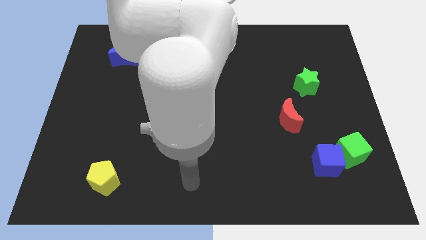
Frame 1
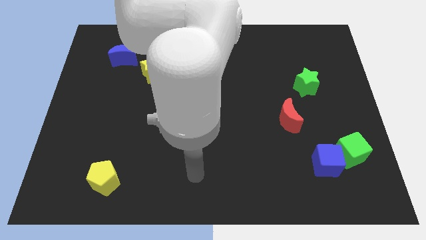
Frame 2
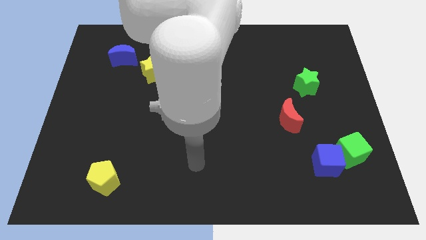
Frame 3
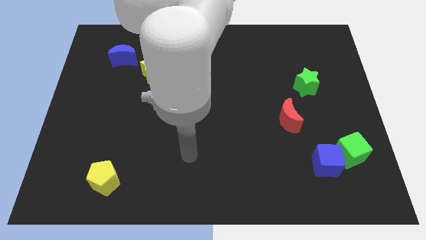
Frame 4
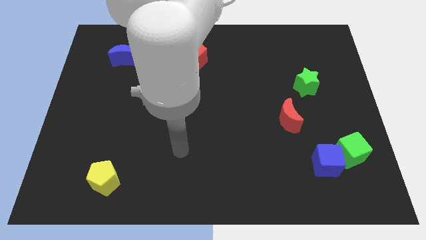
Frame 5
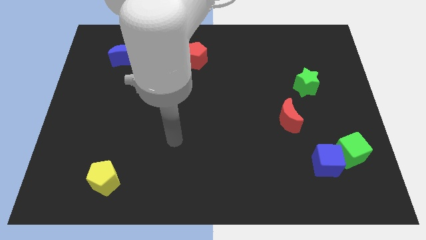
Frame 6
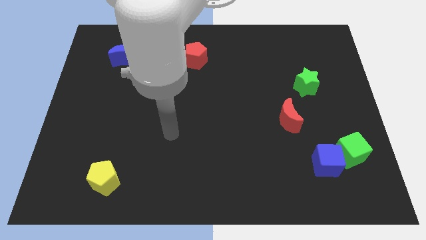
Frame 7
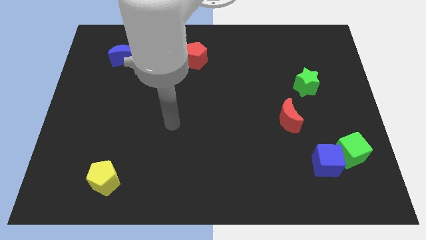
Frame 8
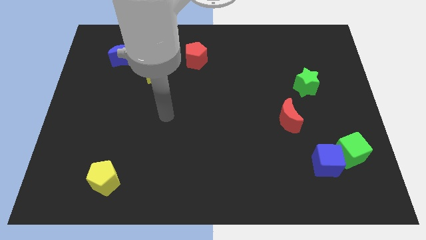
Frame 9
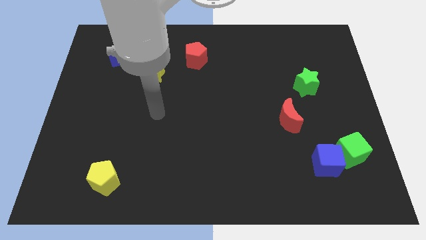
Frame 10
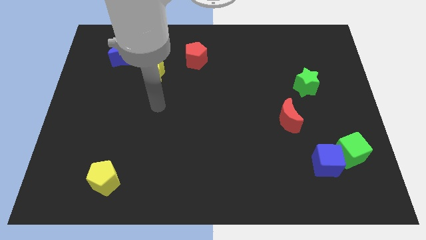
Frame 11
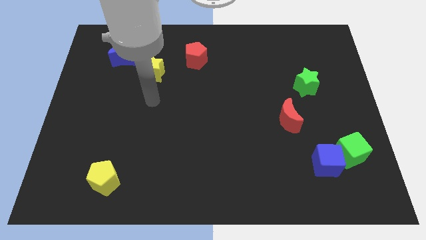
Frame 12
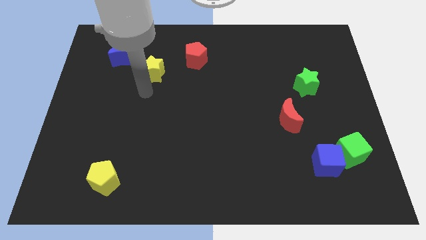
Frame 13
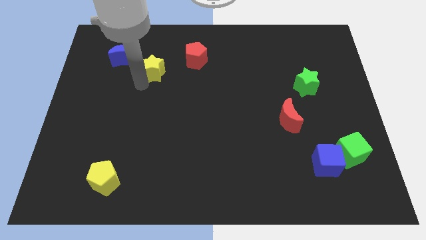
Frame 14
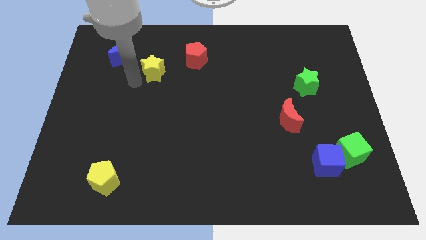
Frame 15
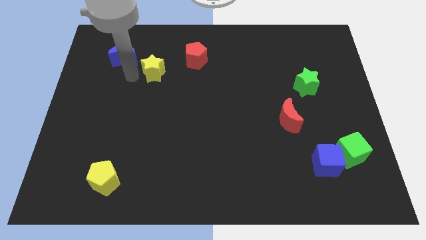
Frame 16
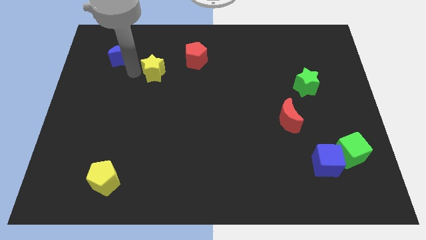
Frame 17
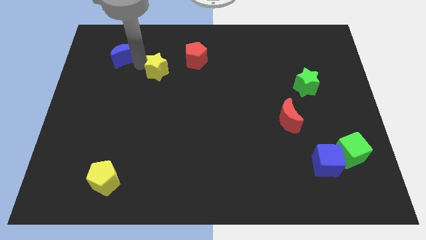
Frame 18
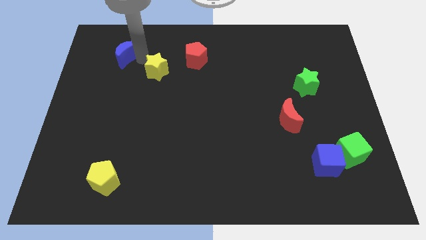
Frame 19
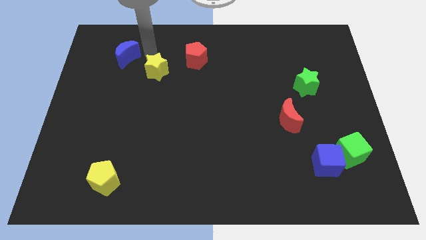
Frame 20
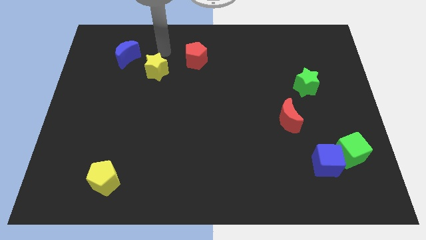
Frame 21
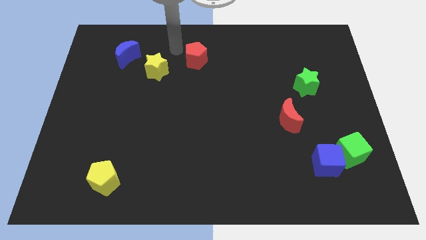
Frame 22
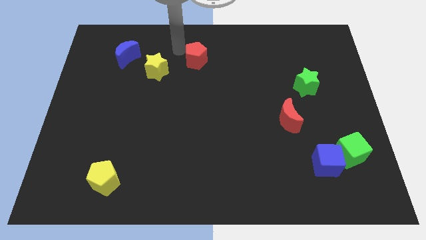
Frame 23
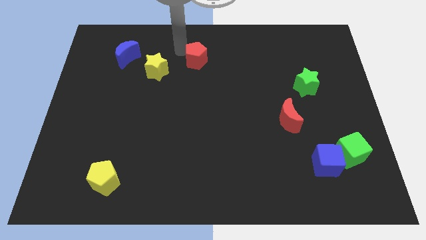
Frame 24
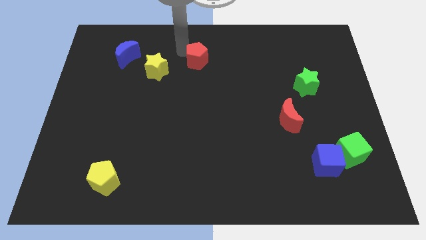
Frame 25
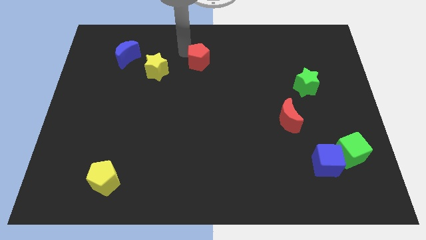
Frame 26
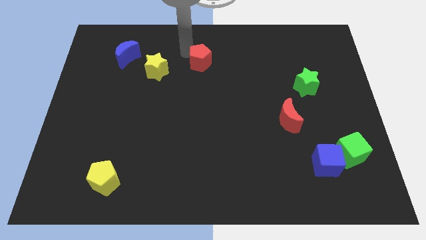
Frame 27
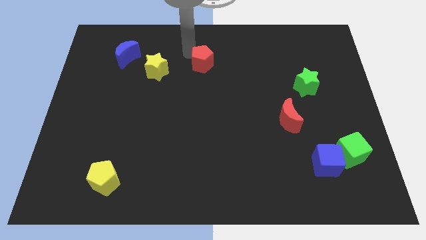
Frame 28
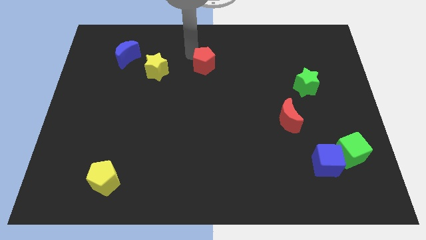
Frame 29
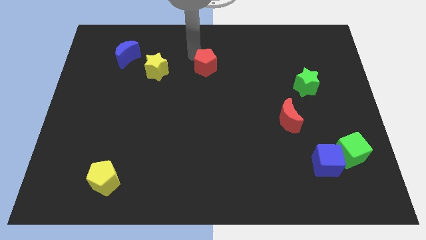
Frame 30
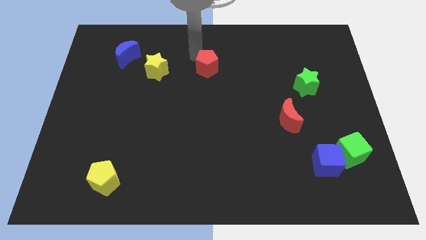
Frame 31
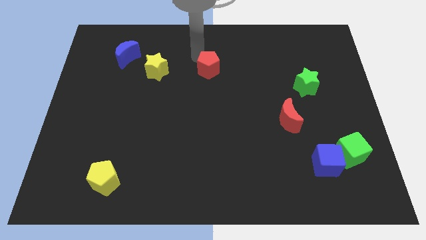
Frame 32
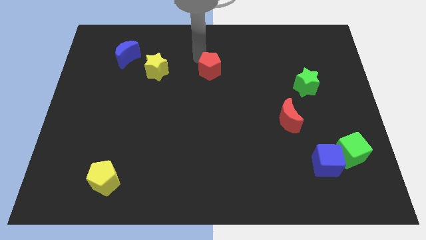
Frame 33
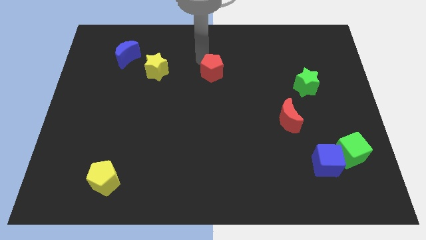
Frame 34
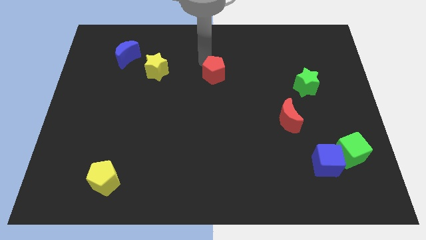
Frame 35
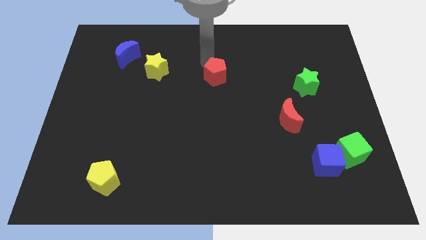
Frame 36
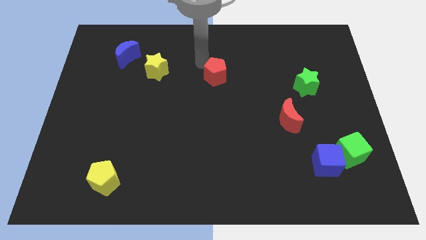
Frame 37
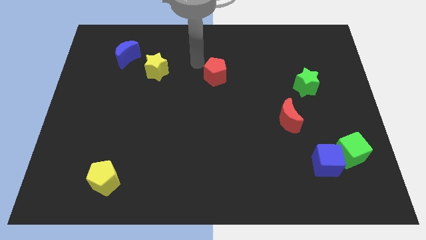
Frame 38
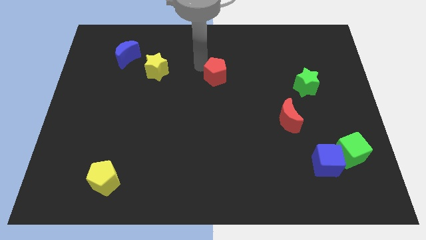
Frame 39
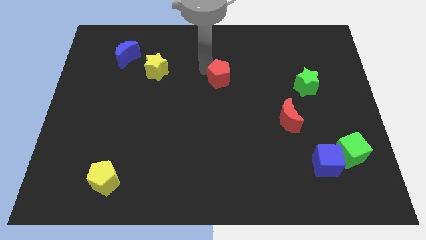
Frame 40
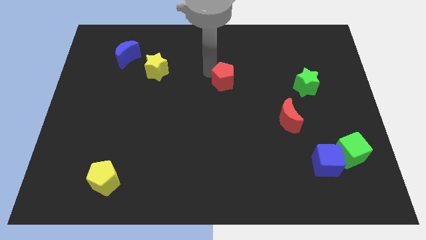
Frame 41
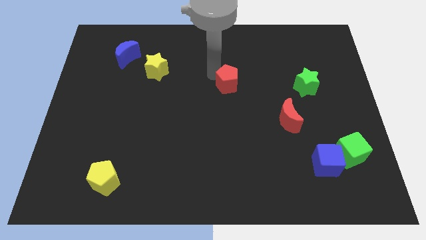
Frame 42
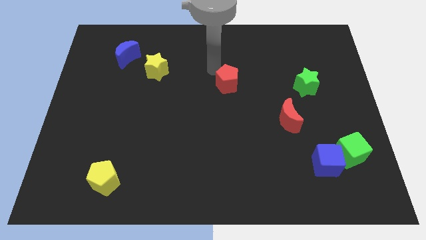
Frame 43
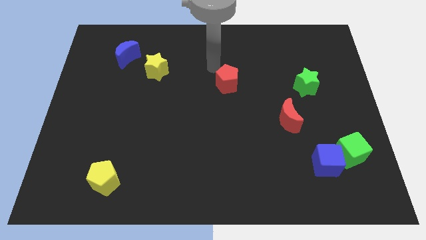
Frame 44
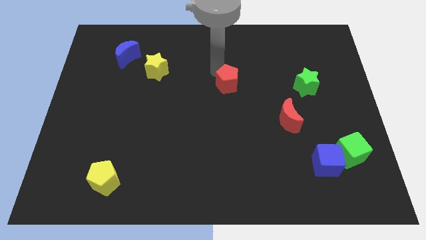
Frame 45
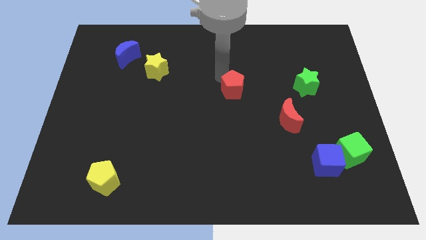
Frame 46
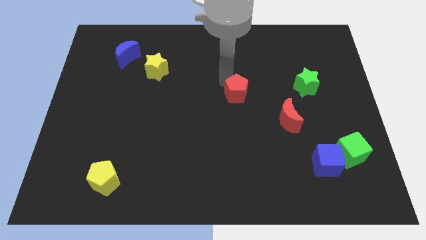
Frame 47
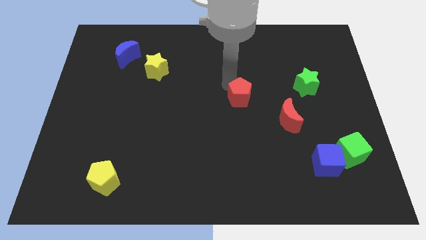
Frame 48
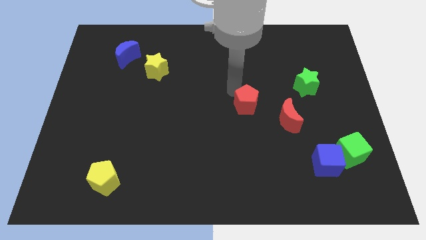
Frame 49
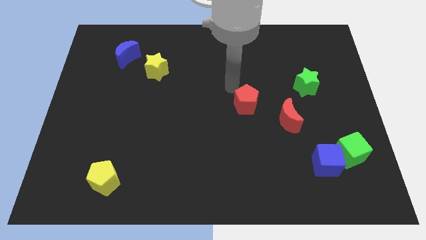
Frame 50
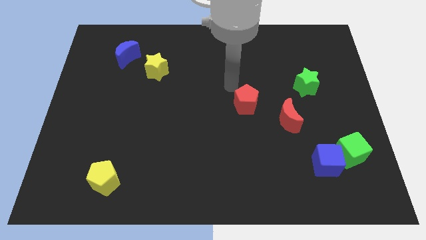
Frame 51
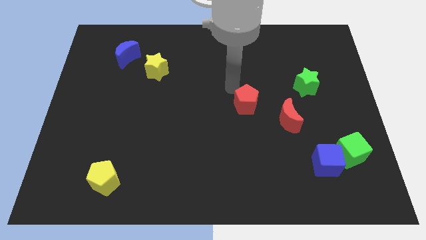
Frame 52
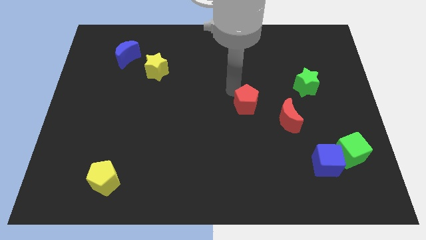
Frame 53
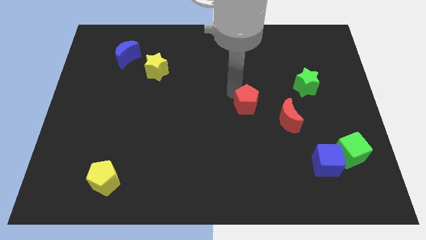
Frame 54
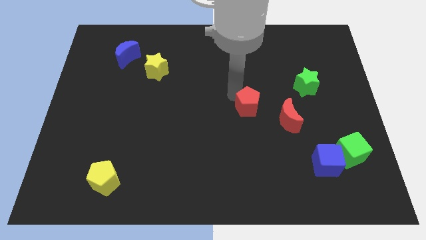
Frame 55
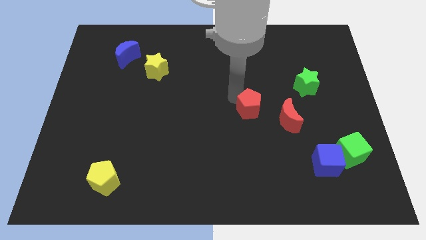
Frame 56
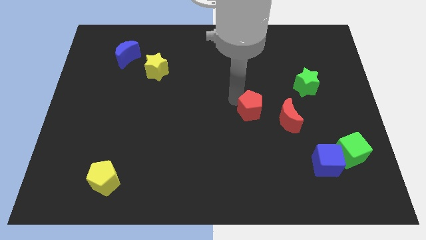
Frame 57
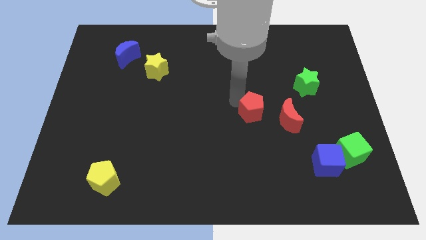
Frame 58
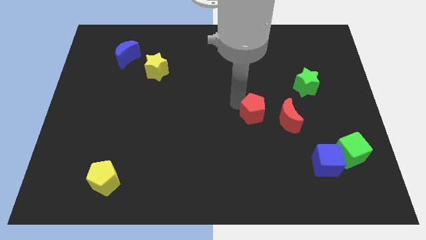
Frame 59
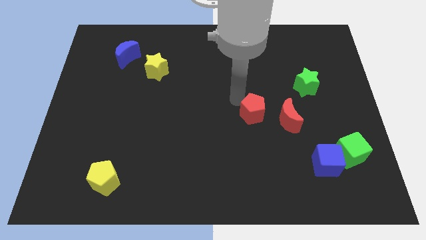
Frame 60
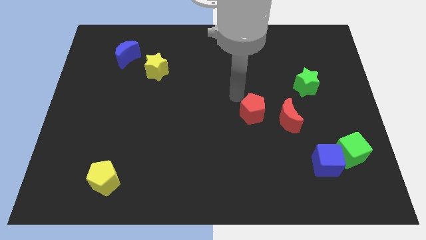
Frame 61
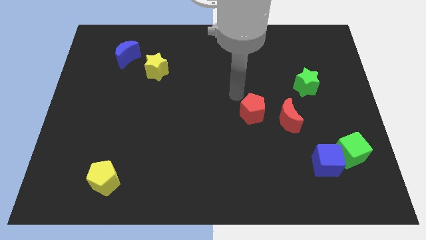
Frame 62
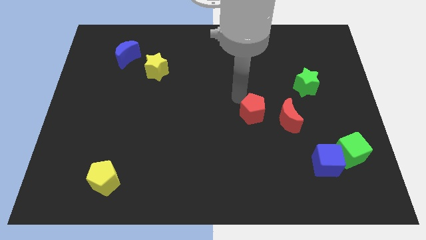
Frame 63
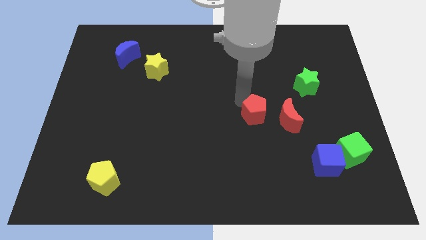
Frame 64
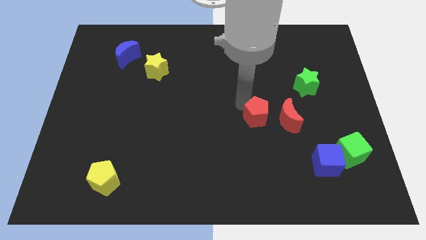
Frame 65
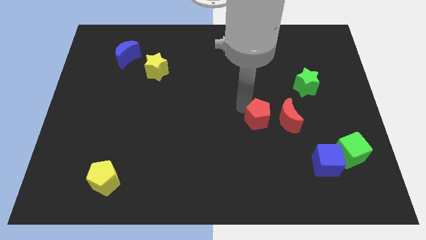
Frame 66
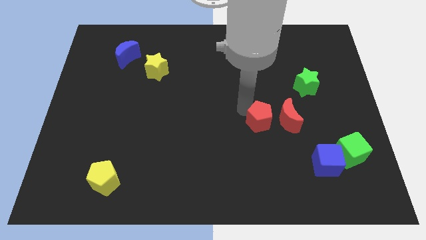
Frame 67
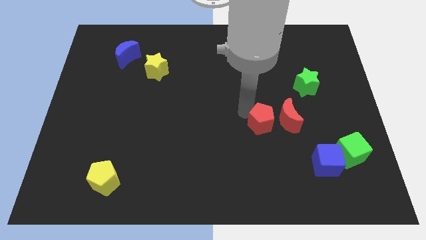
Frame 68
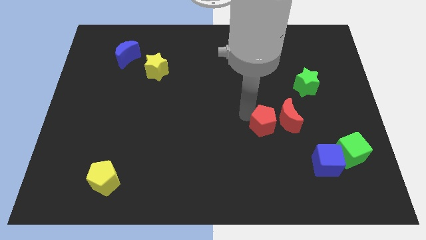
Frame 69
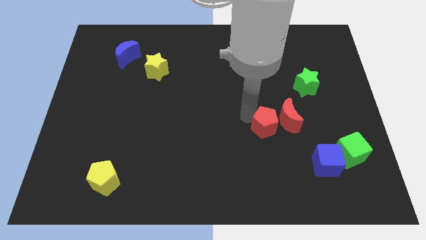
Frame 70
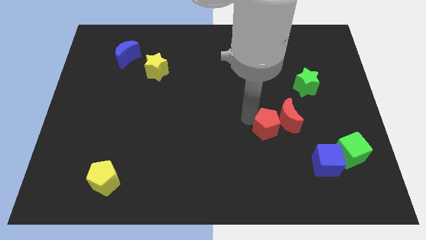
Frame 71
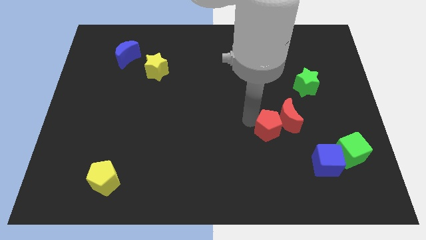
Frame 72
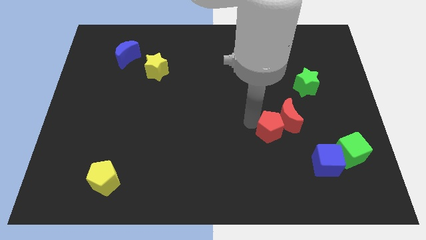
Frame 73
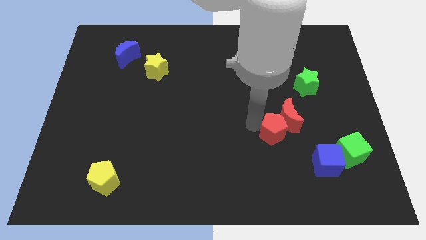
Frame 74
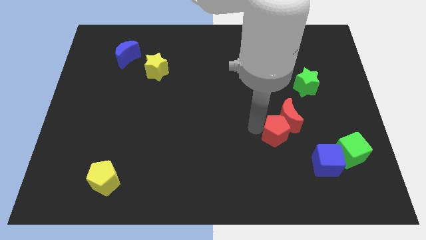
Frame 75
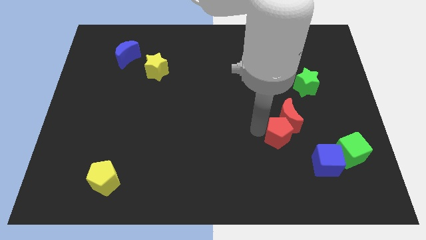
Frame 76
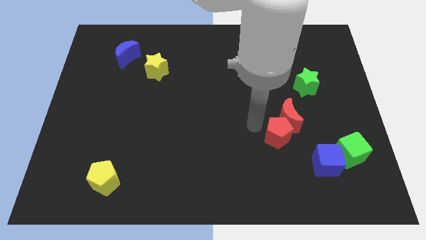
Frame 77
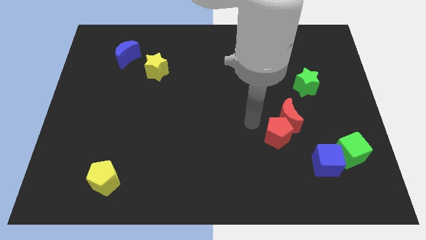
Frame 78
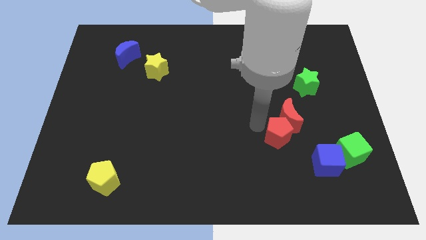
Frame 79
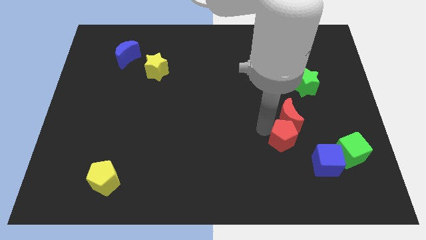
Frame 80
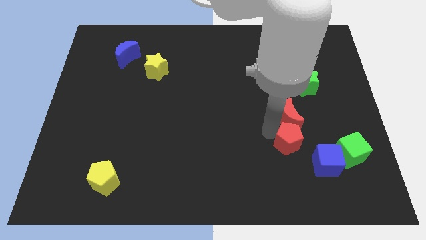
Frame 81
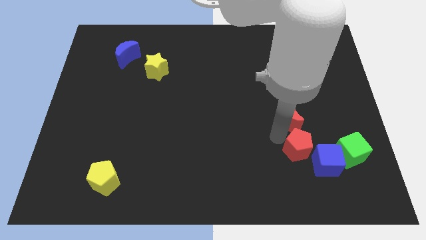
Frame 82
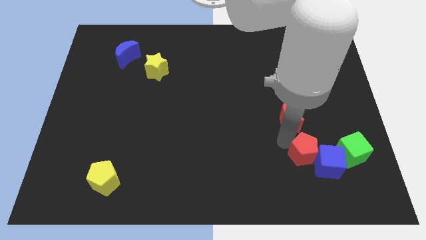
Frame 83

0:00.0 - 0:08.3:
move the red pentagon to the blue cube
